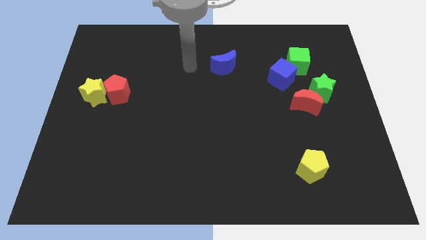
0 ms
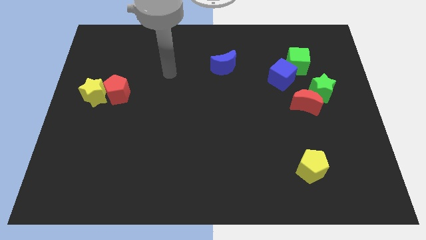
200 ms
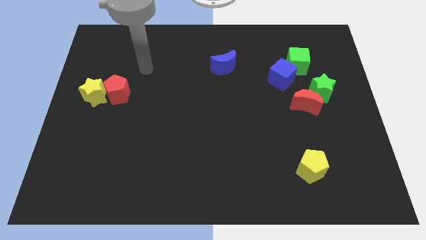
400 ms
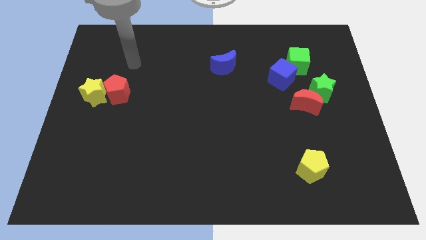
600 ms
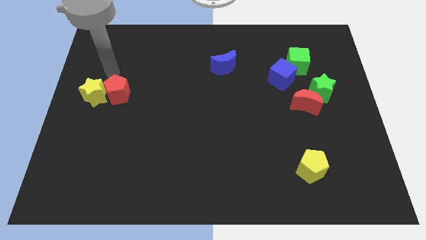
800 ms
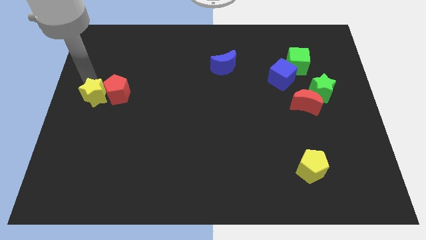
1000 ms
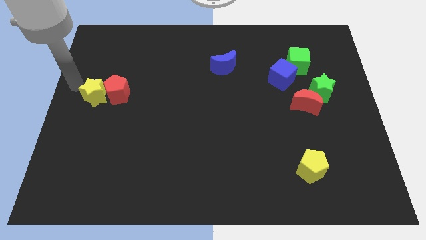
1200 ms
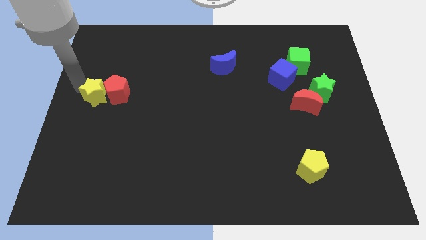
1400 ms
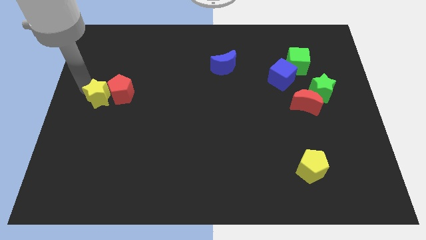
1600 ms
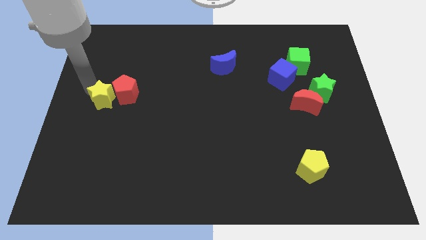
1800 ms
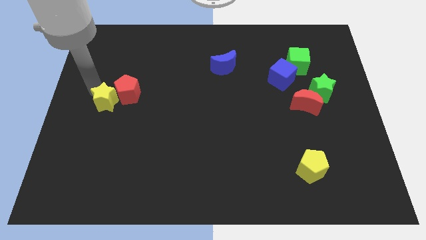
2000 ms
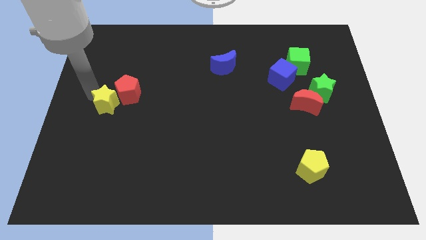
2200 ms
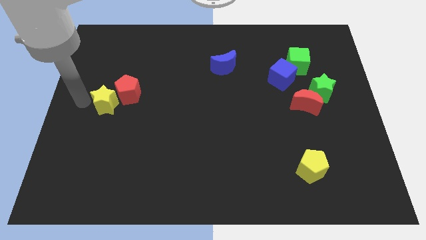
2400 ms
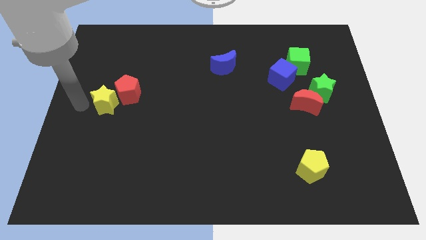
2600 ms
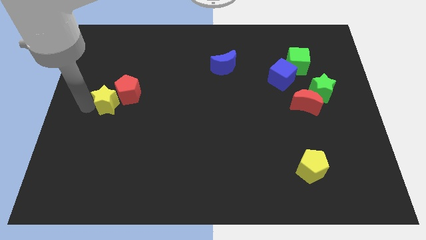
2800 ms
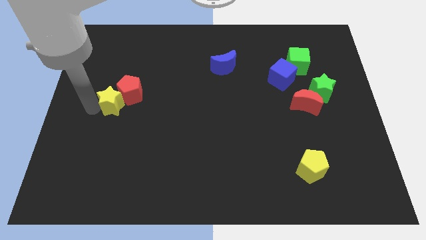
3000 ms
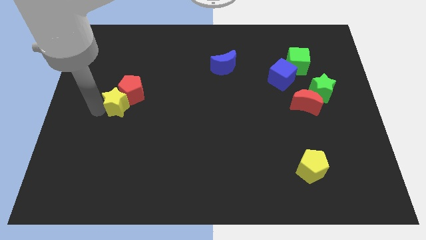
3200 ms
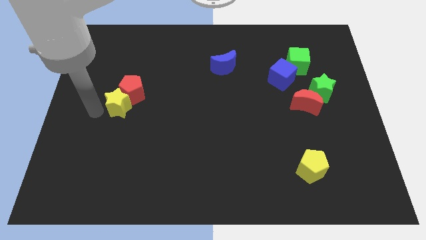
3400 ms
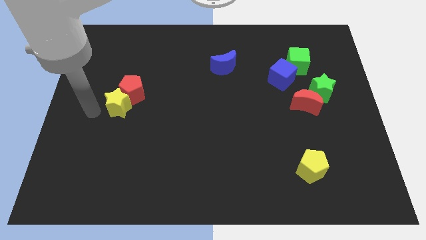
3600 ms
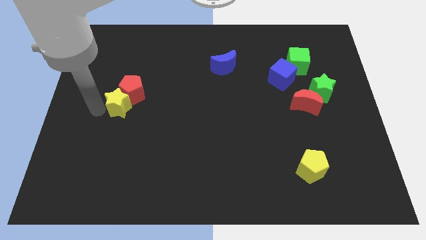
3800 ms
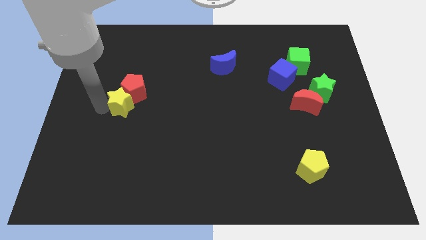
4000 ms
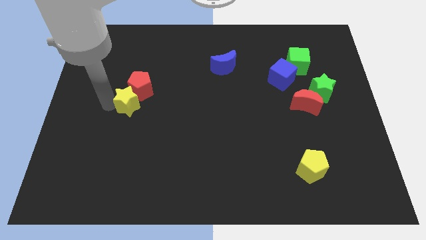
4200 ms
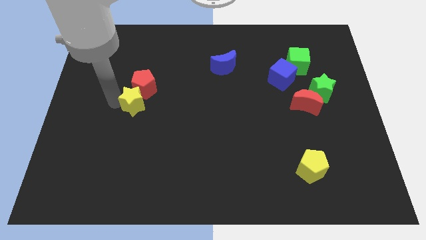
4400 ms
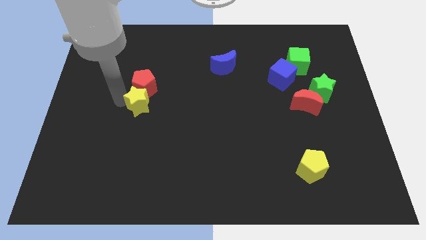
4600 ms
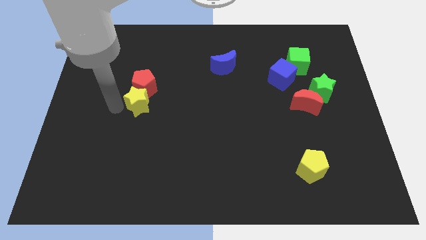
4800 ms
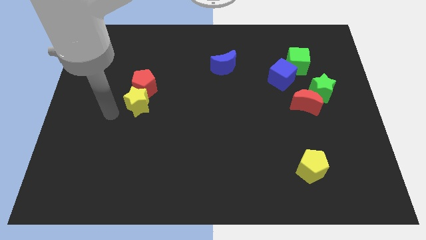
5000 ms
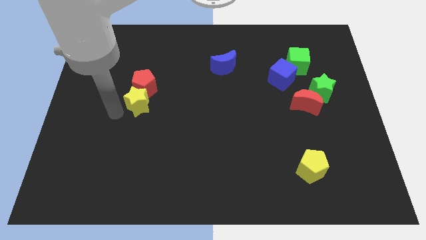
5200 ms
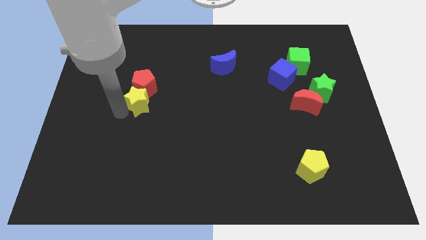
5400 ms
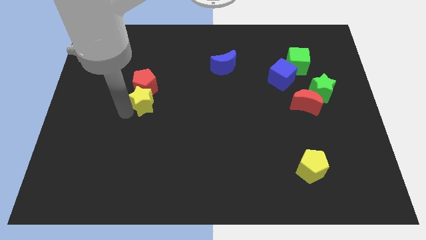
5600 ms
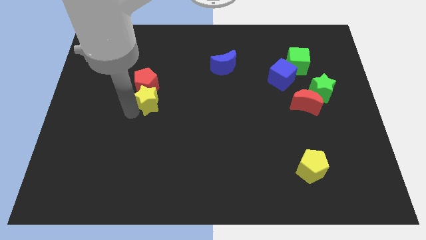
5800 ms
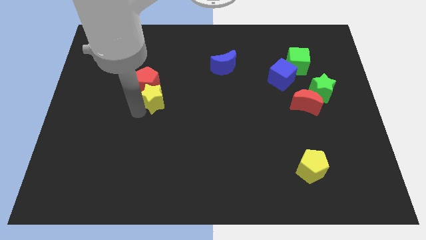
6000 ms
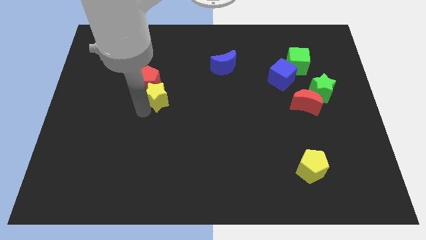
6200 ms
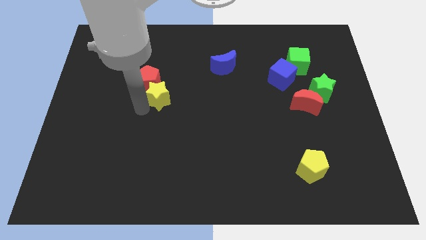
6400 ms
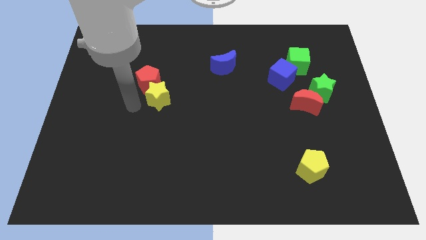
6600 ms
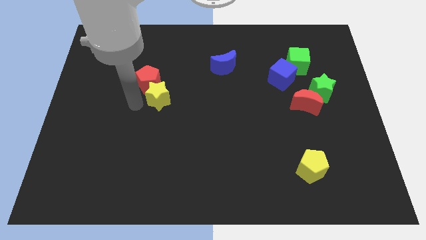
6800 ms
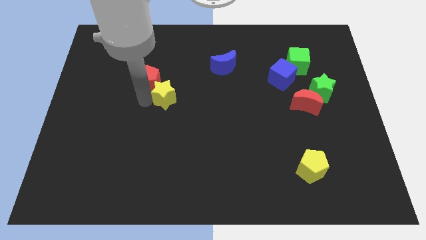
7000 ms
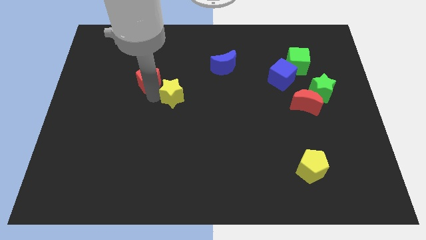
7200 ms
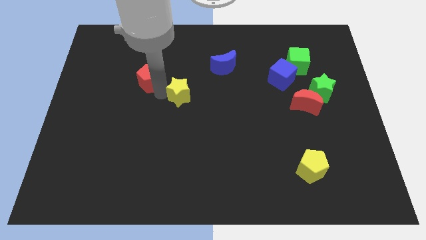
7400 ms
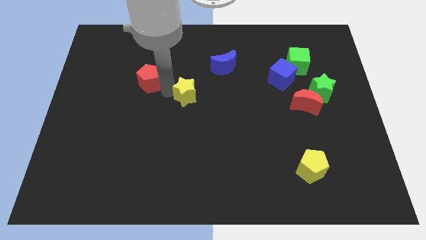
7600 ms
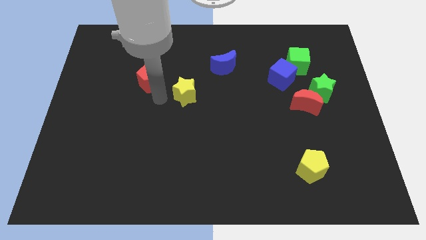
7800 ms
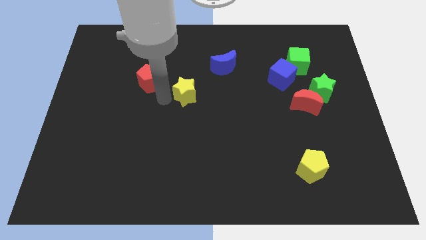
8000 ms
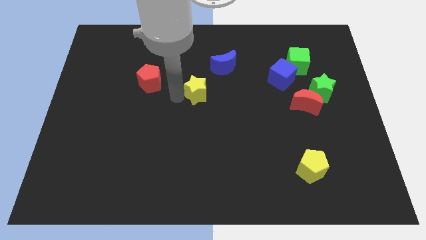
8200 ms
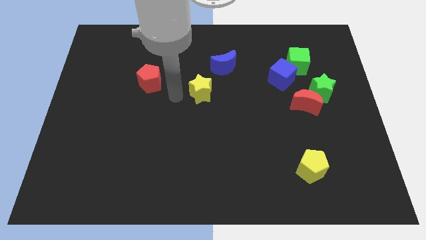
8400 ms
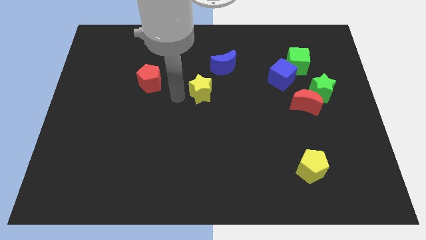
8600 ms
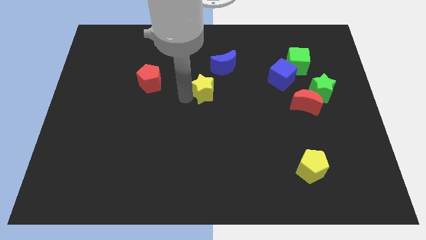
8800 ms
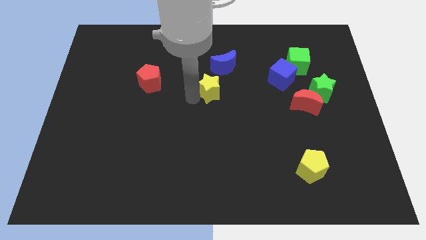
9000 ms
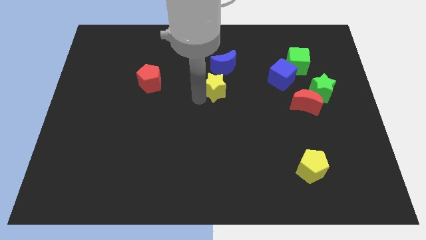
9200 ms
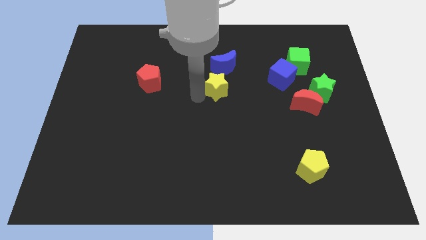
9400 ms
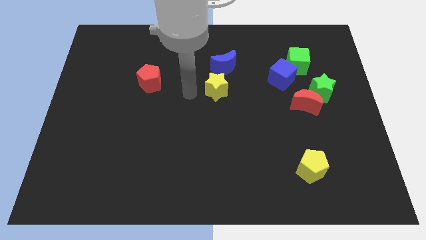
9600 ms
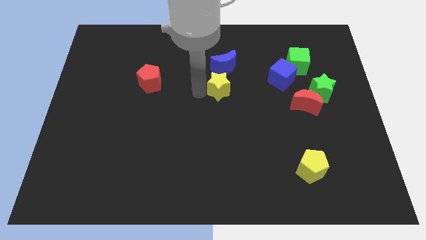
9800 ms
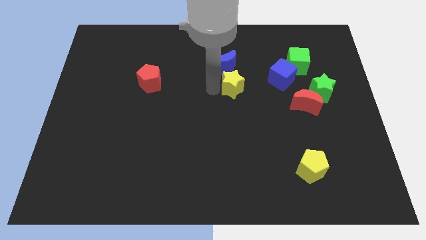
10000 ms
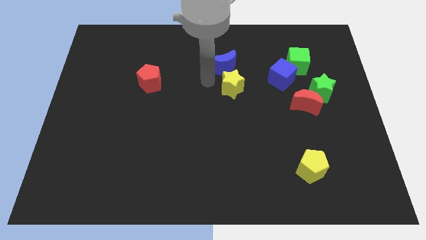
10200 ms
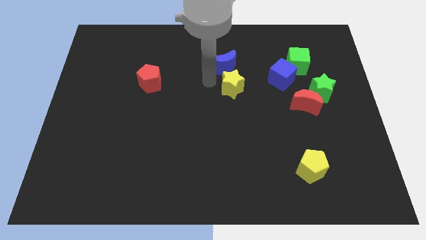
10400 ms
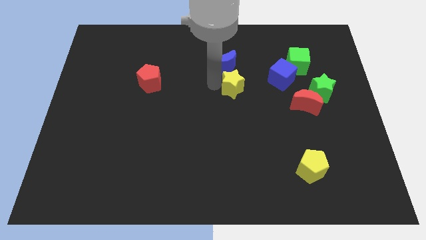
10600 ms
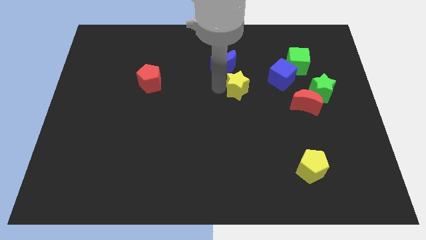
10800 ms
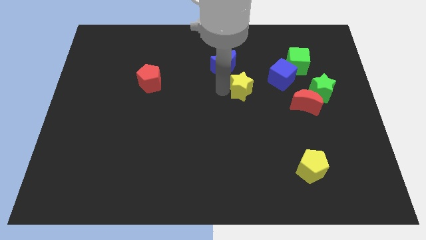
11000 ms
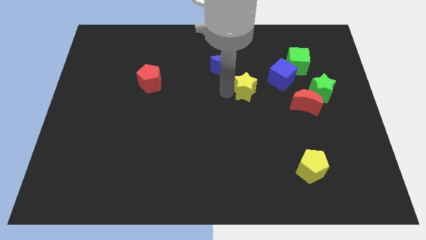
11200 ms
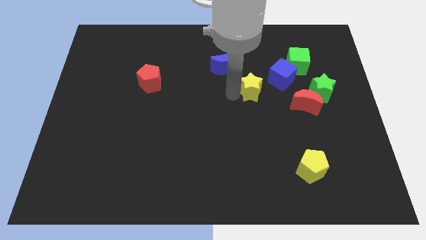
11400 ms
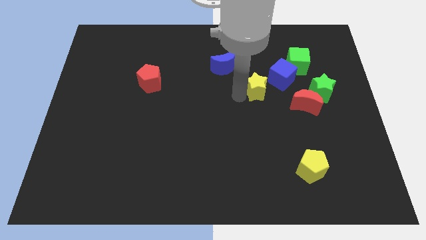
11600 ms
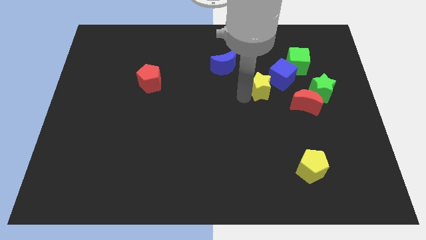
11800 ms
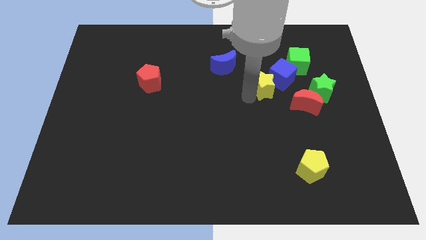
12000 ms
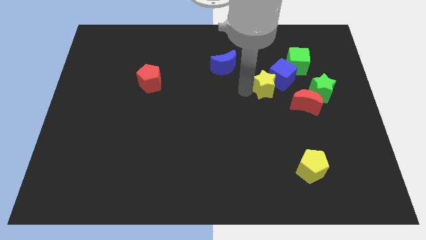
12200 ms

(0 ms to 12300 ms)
push the yellow star below the blue cube
